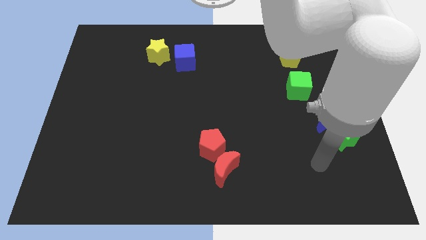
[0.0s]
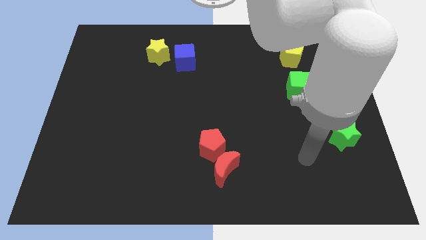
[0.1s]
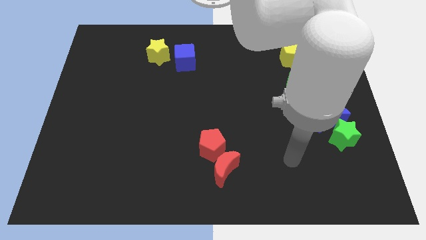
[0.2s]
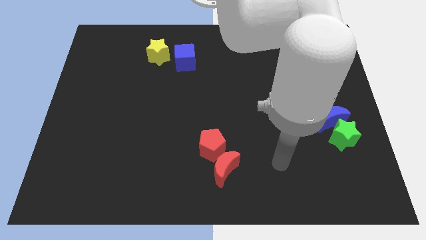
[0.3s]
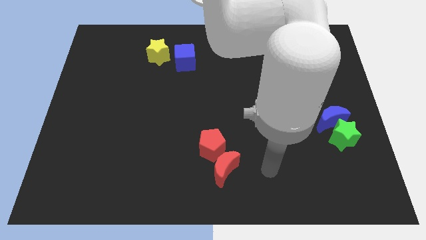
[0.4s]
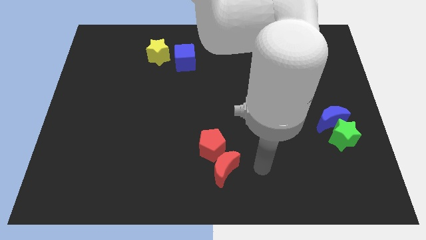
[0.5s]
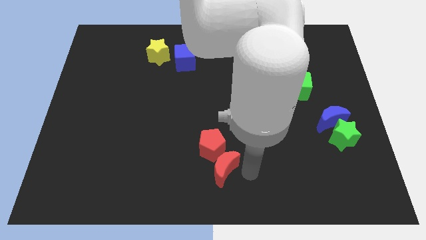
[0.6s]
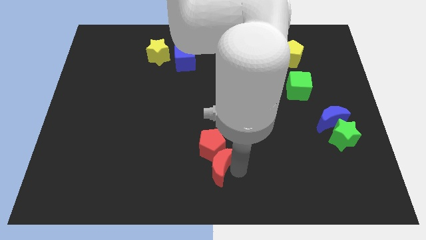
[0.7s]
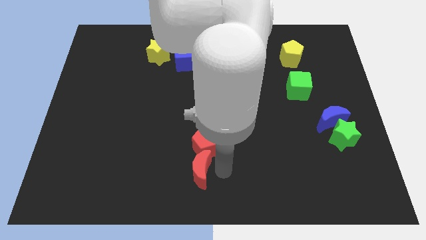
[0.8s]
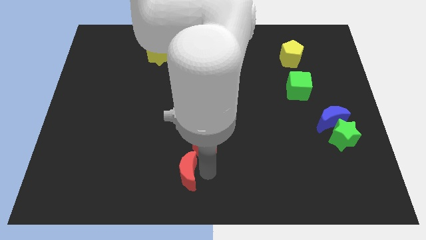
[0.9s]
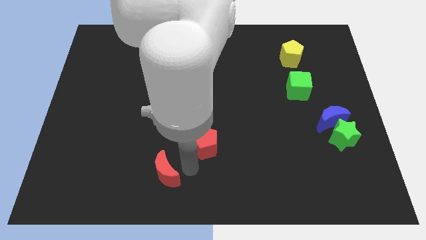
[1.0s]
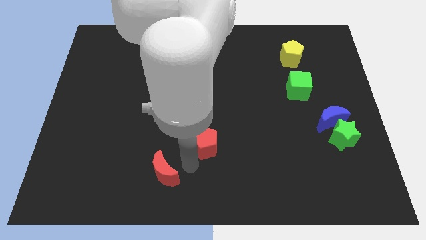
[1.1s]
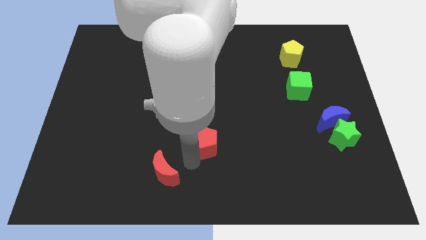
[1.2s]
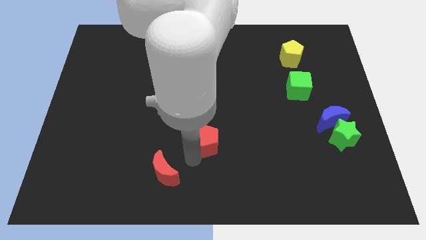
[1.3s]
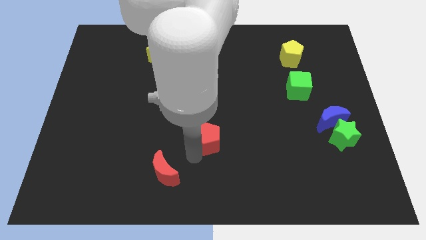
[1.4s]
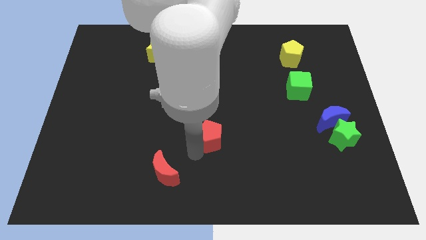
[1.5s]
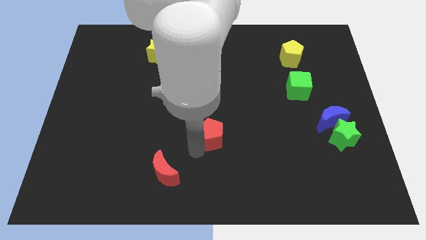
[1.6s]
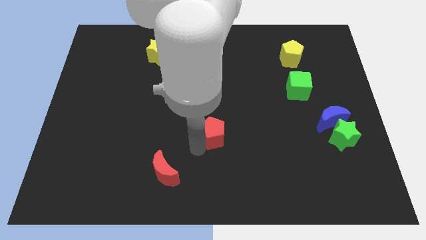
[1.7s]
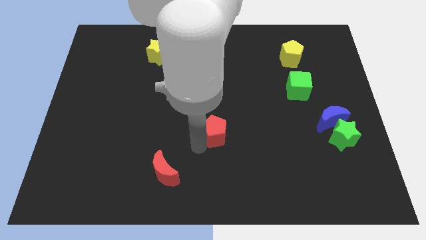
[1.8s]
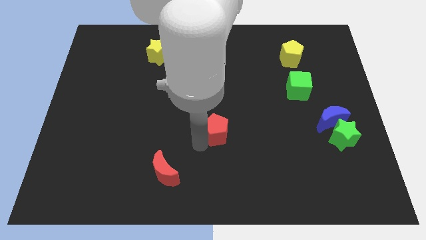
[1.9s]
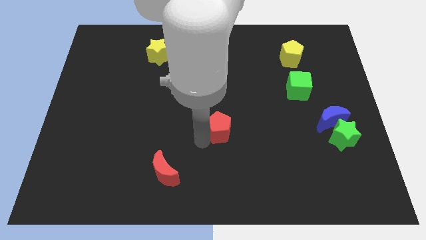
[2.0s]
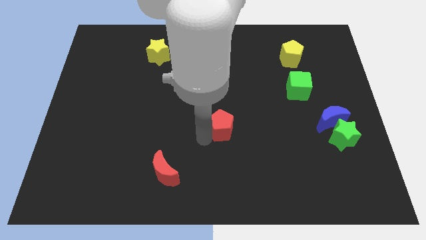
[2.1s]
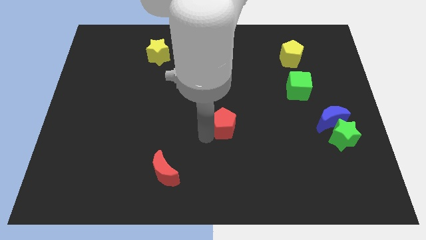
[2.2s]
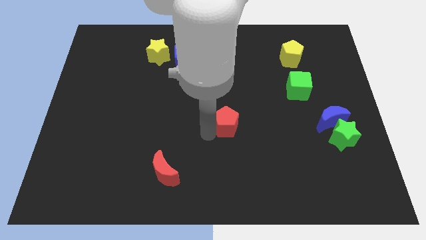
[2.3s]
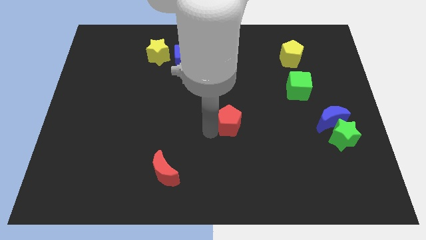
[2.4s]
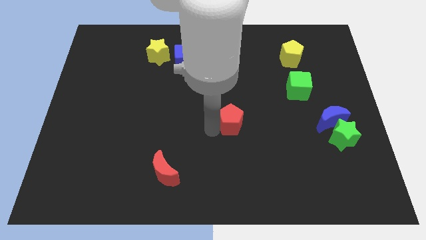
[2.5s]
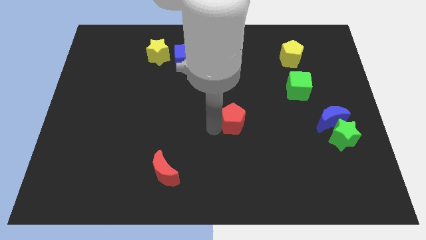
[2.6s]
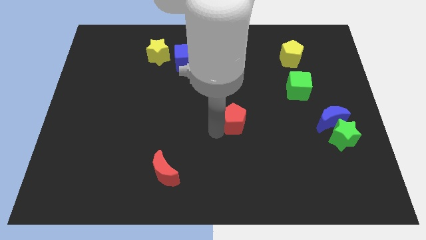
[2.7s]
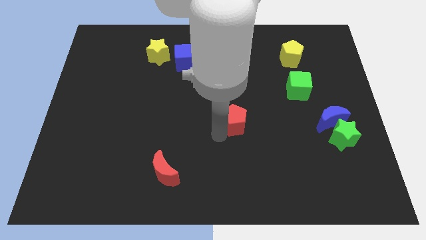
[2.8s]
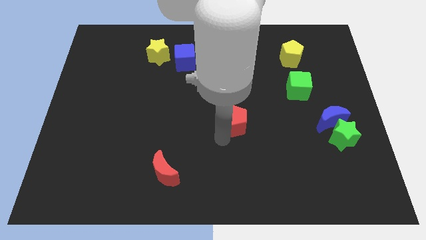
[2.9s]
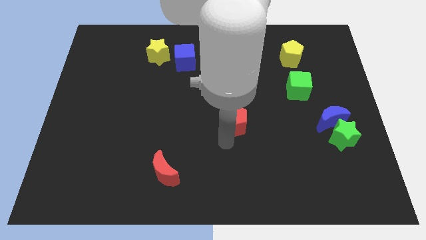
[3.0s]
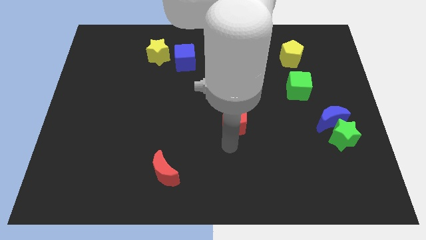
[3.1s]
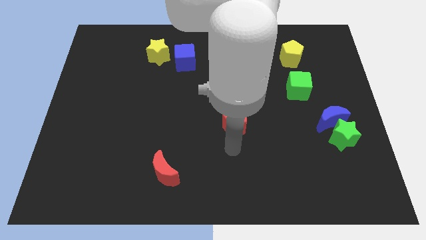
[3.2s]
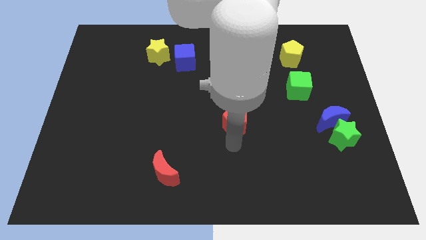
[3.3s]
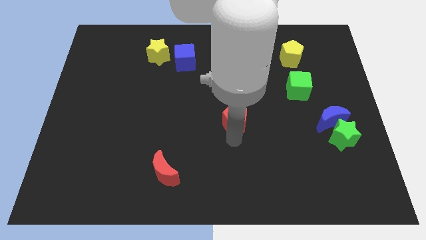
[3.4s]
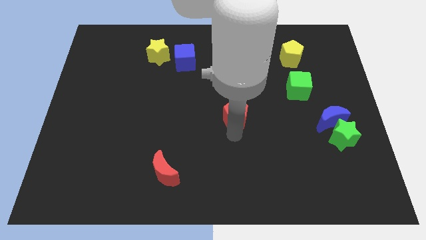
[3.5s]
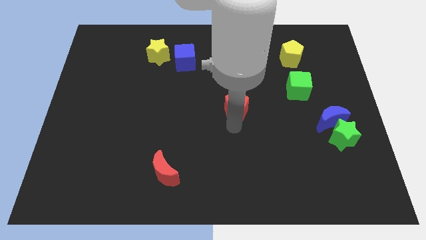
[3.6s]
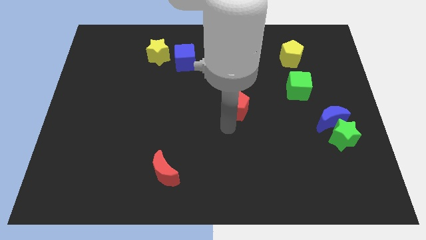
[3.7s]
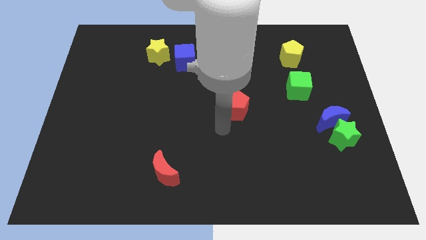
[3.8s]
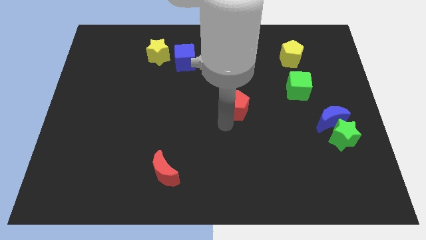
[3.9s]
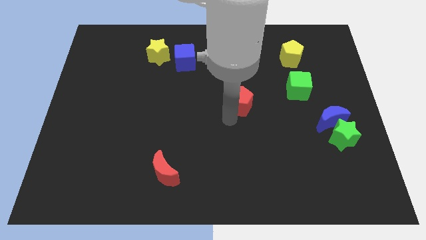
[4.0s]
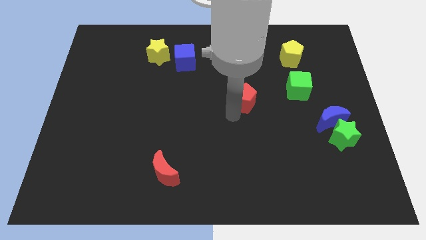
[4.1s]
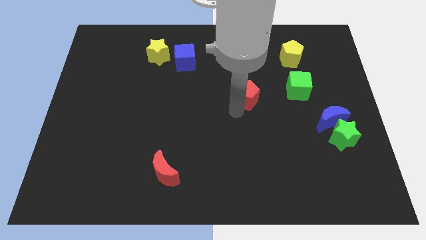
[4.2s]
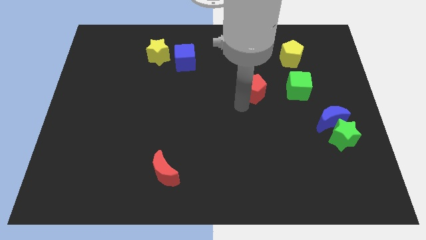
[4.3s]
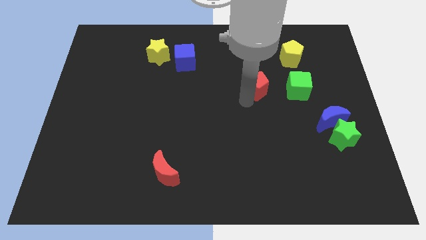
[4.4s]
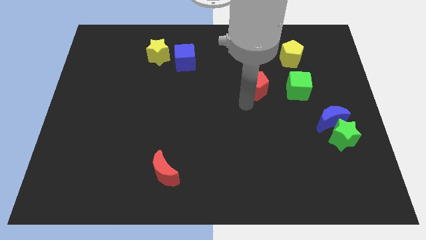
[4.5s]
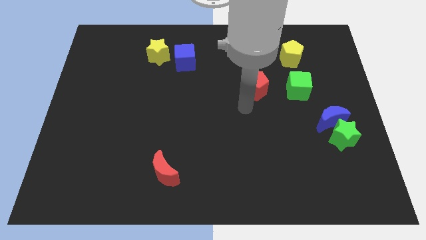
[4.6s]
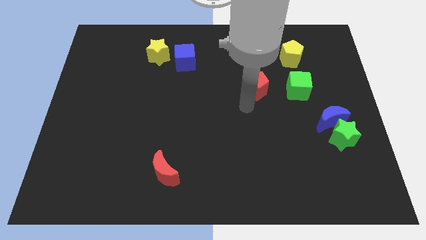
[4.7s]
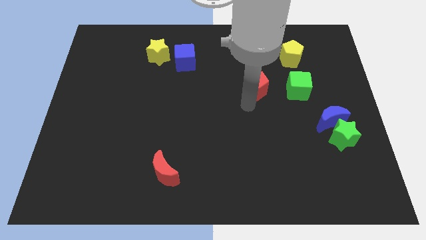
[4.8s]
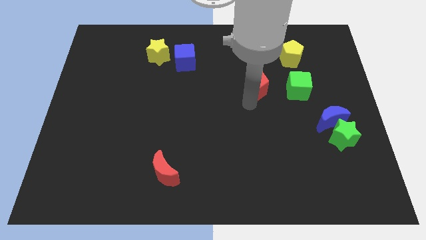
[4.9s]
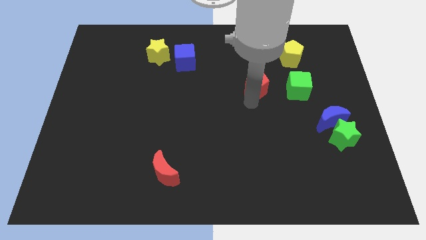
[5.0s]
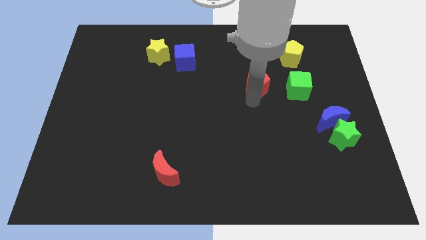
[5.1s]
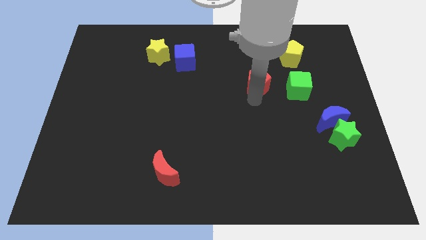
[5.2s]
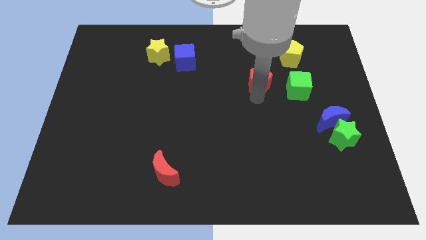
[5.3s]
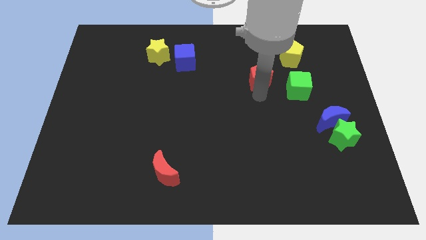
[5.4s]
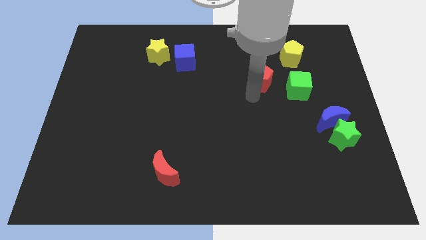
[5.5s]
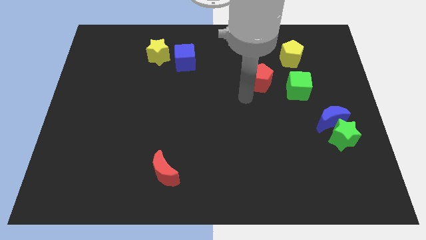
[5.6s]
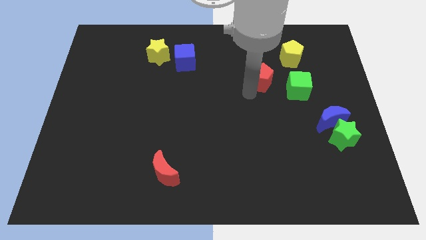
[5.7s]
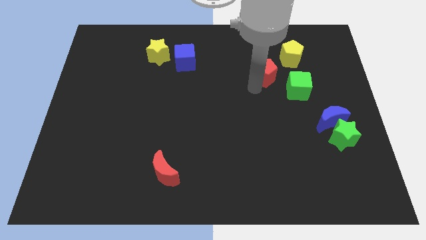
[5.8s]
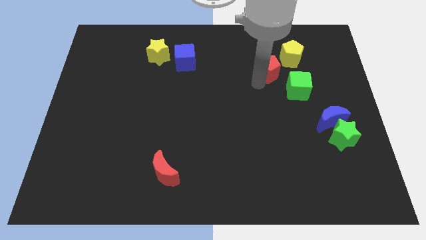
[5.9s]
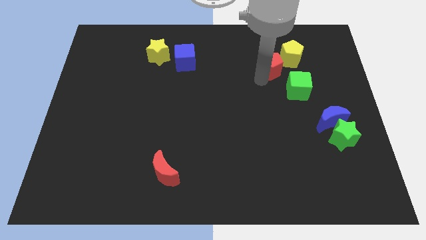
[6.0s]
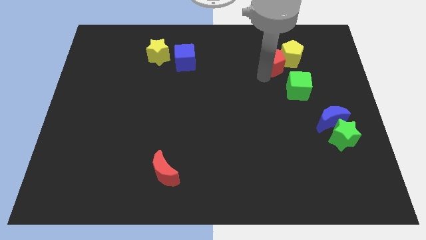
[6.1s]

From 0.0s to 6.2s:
slide the red pentagon next to the yellow pentagon

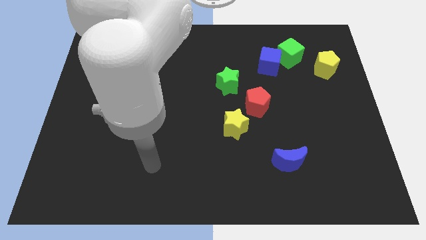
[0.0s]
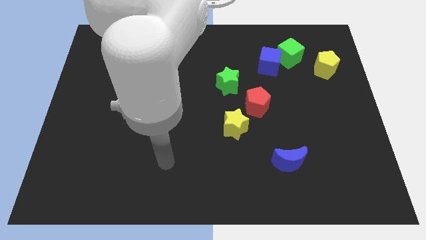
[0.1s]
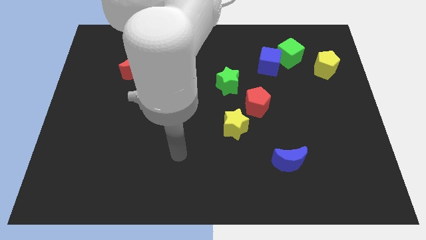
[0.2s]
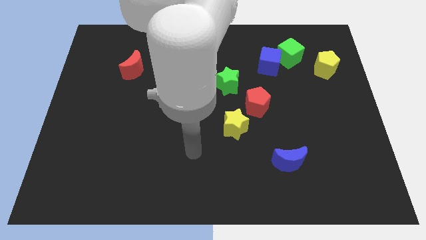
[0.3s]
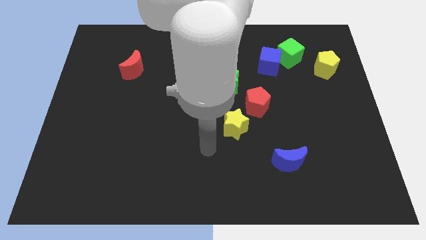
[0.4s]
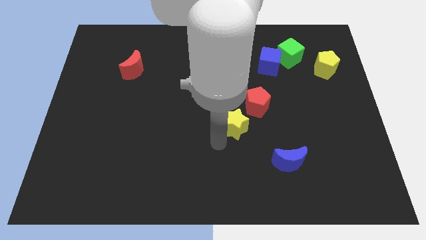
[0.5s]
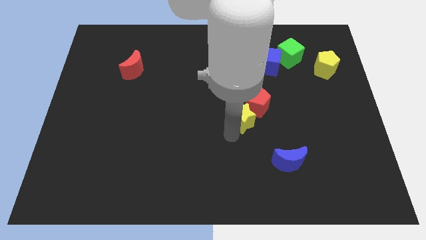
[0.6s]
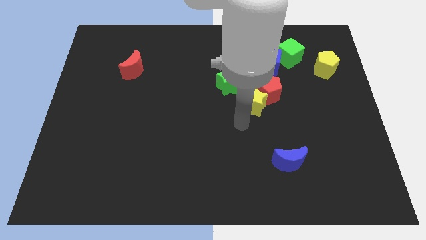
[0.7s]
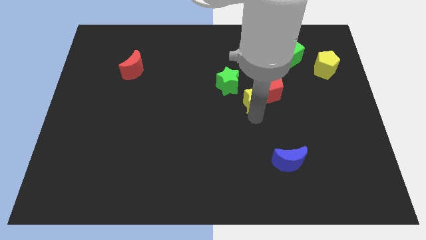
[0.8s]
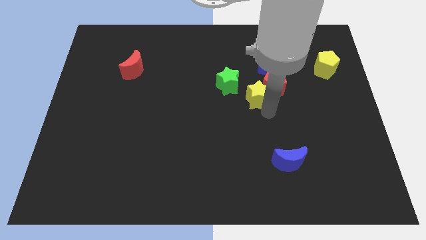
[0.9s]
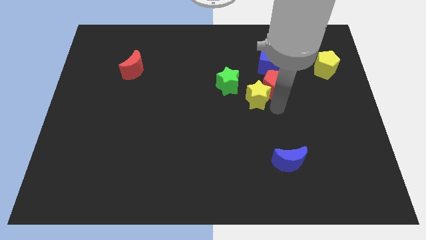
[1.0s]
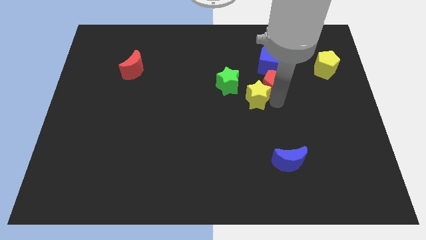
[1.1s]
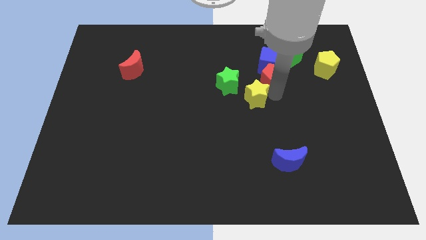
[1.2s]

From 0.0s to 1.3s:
move the red pentagon next to the blue cube
